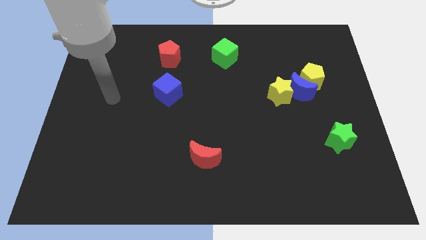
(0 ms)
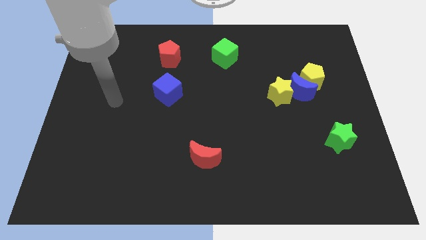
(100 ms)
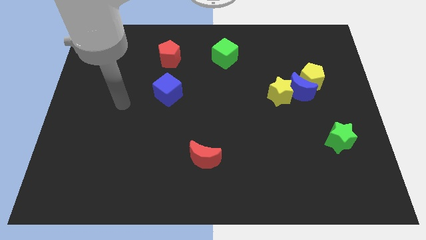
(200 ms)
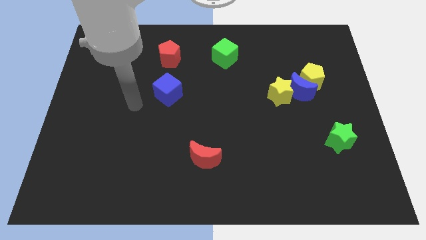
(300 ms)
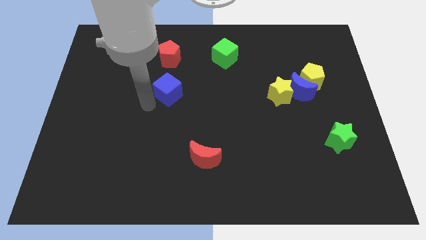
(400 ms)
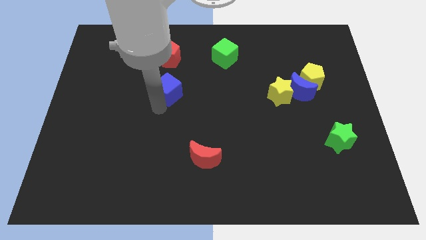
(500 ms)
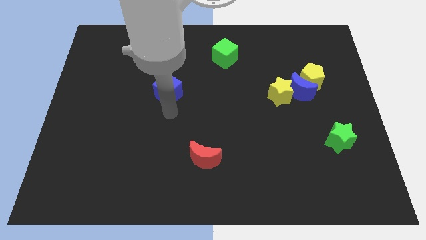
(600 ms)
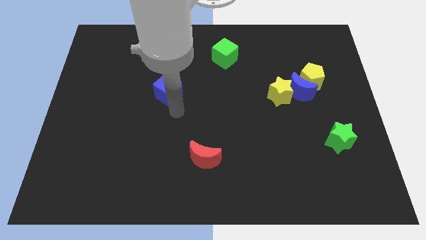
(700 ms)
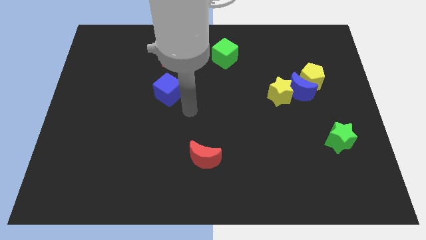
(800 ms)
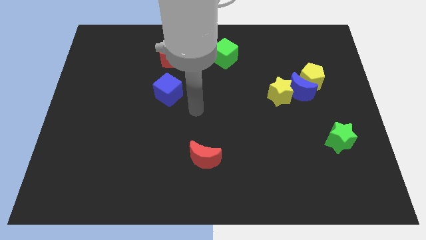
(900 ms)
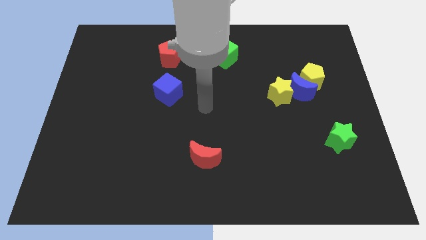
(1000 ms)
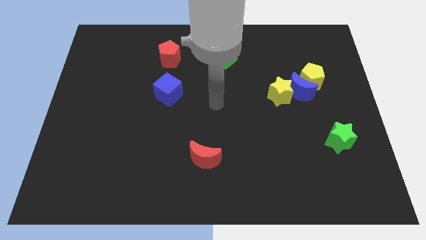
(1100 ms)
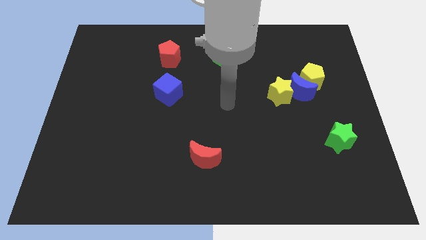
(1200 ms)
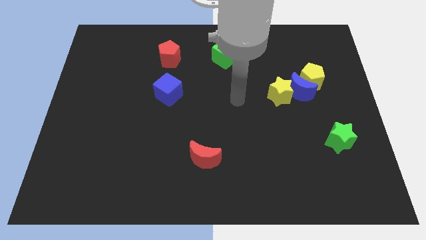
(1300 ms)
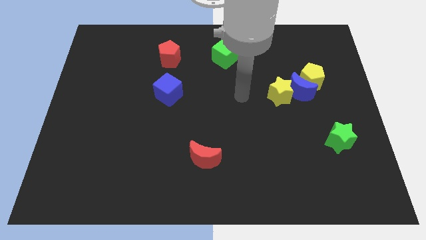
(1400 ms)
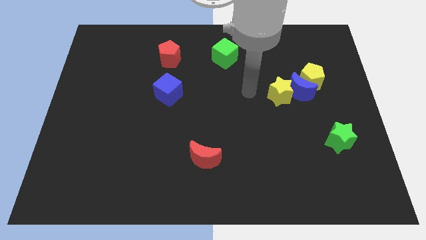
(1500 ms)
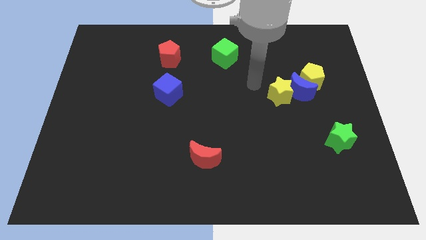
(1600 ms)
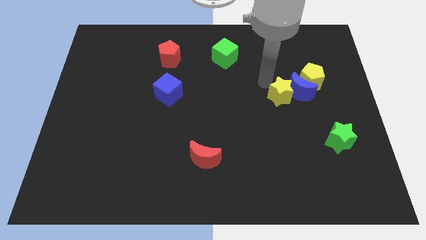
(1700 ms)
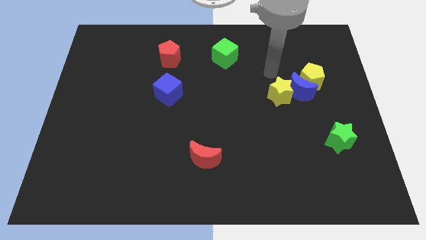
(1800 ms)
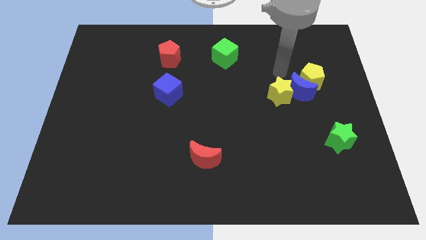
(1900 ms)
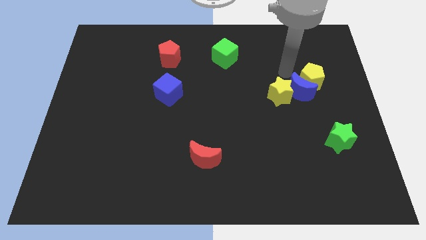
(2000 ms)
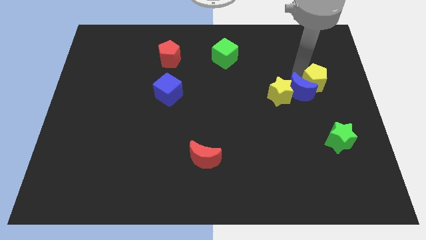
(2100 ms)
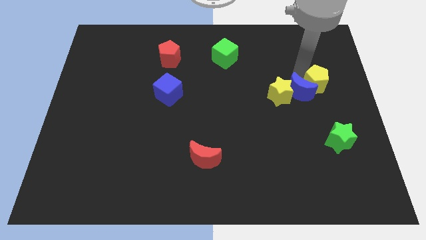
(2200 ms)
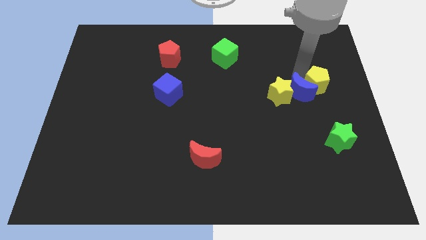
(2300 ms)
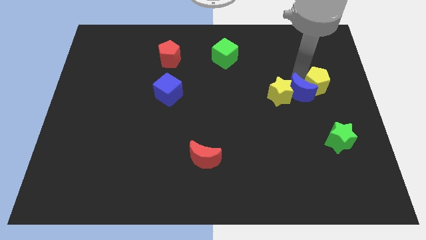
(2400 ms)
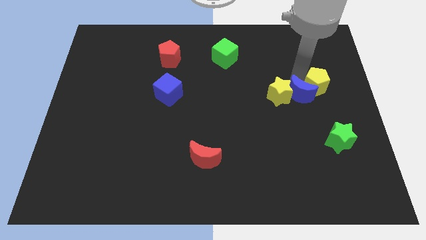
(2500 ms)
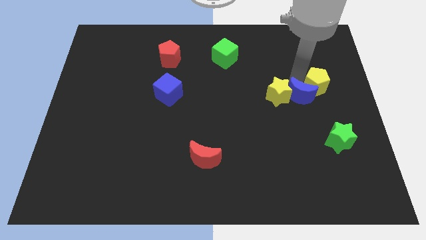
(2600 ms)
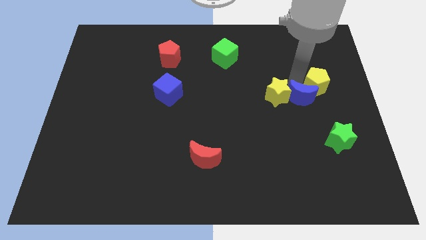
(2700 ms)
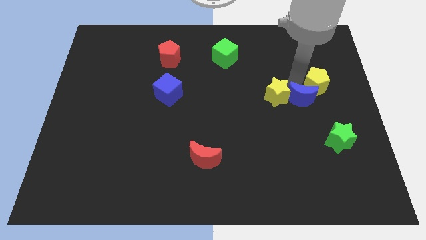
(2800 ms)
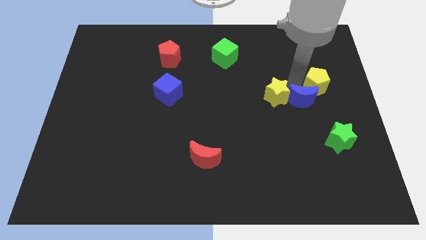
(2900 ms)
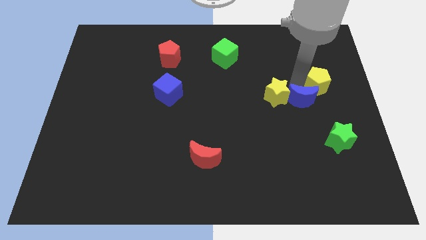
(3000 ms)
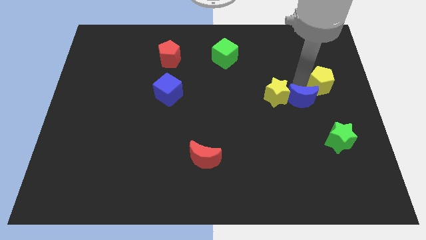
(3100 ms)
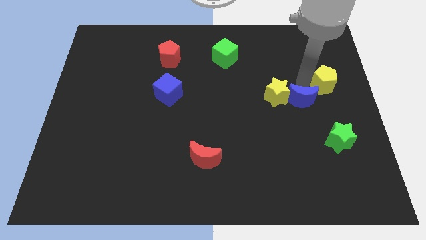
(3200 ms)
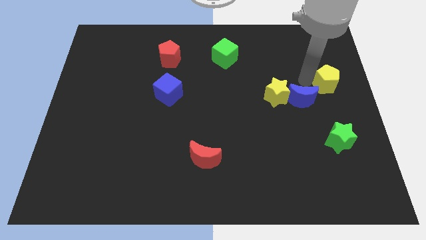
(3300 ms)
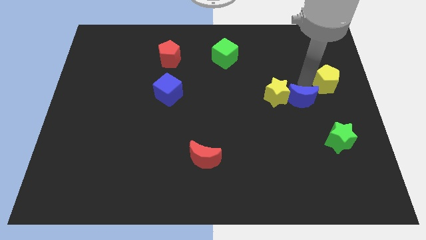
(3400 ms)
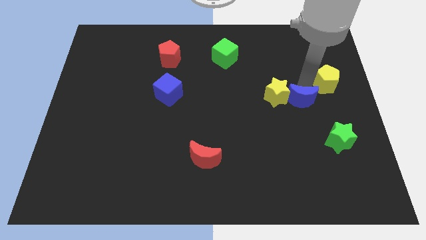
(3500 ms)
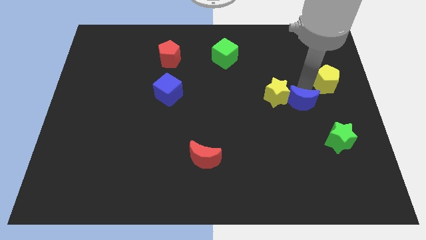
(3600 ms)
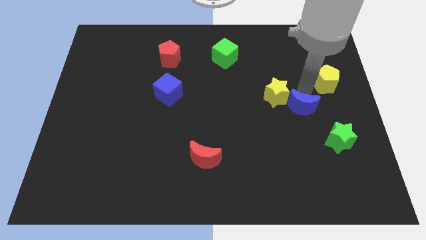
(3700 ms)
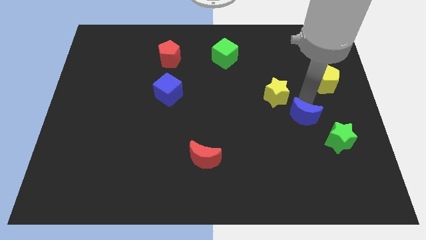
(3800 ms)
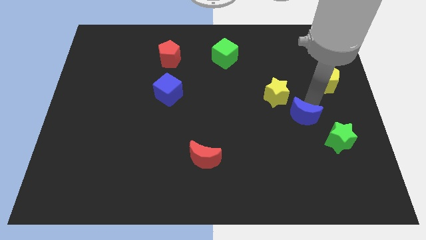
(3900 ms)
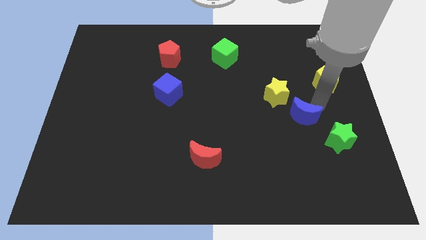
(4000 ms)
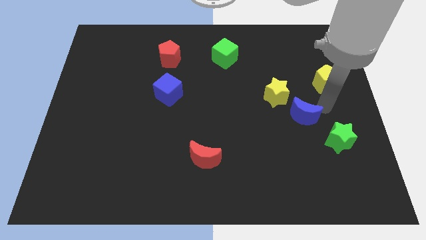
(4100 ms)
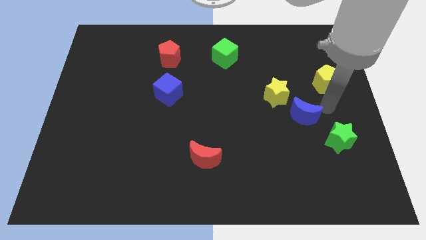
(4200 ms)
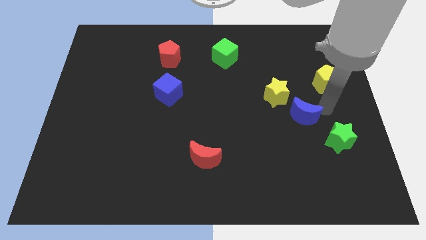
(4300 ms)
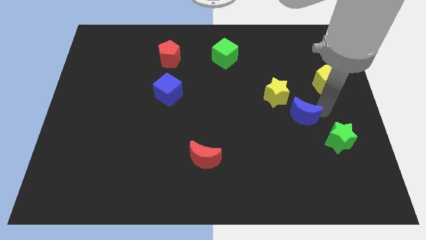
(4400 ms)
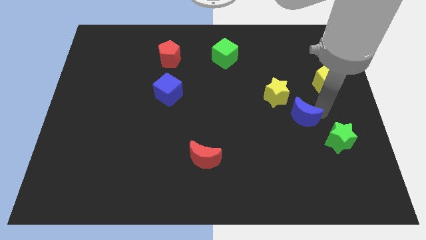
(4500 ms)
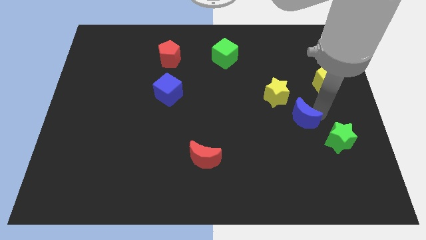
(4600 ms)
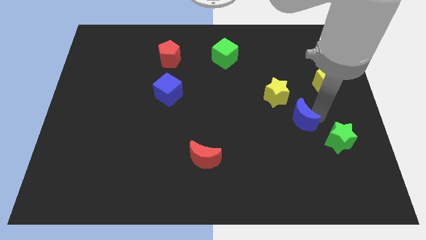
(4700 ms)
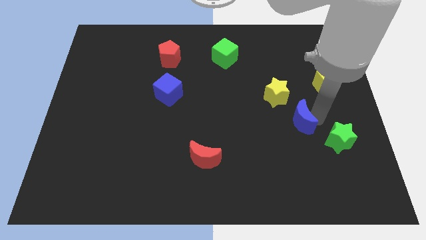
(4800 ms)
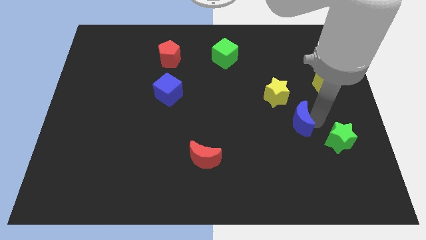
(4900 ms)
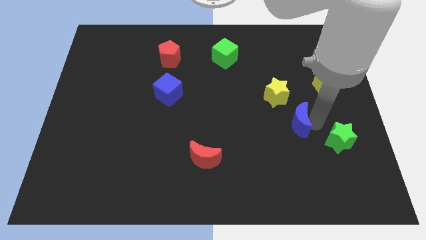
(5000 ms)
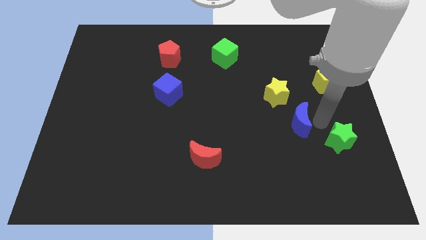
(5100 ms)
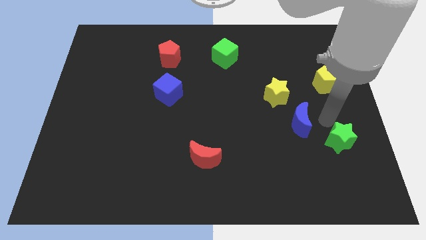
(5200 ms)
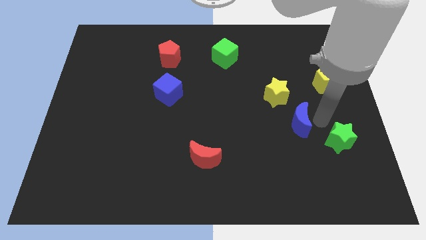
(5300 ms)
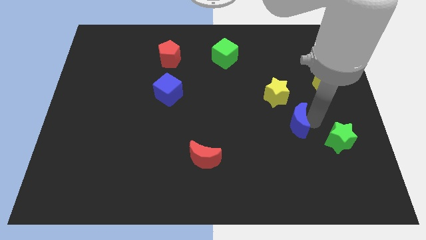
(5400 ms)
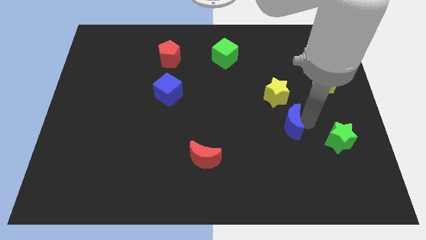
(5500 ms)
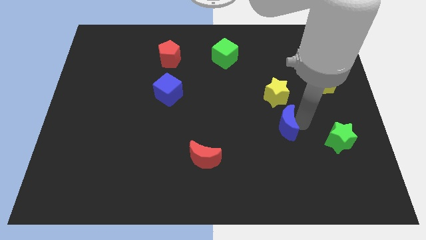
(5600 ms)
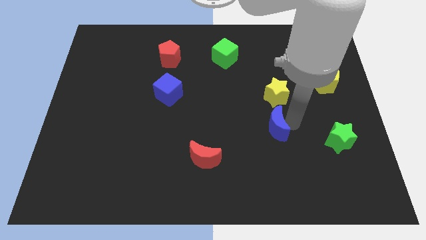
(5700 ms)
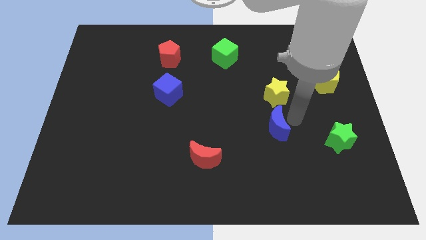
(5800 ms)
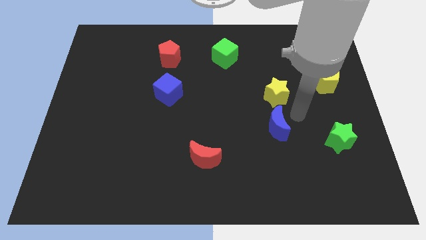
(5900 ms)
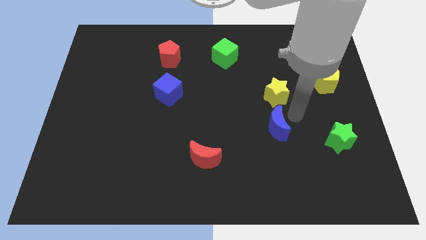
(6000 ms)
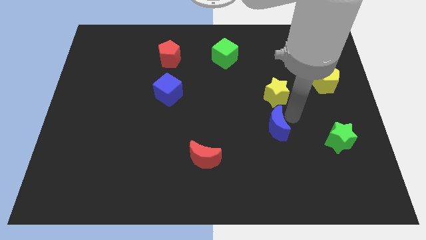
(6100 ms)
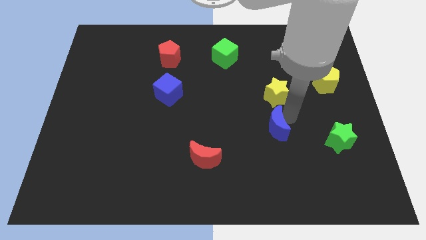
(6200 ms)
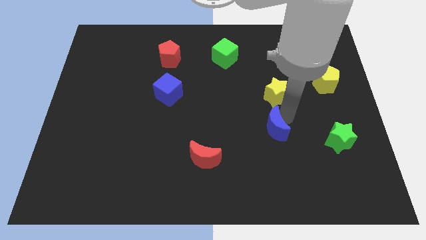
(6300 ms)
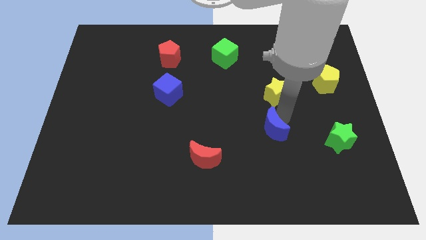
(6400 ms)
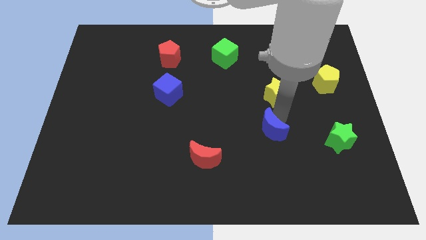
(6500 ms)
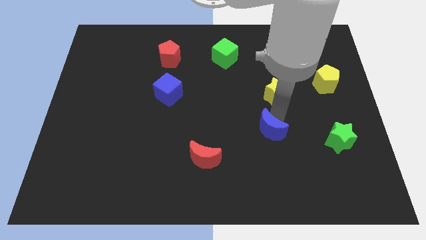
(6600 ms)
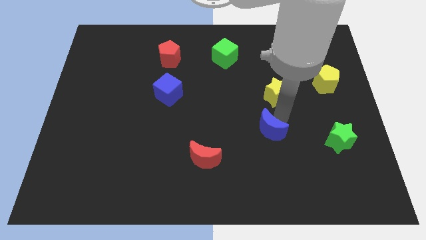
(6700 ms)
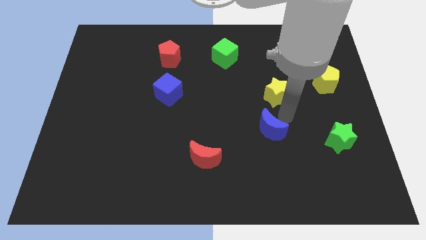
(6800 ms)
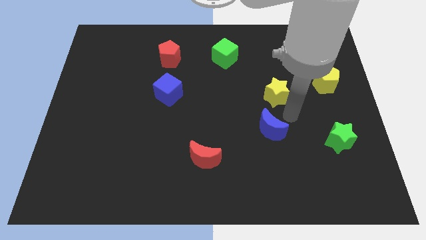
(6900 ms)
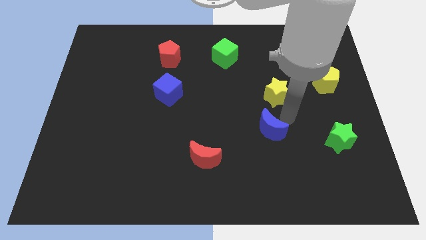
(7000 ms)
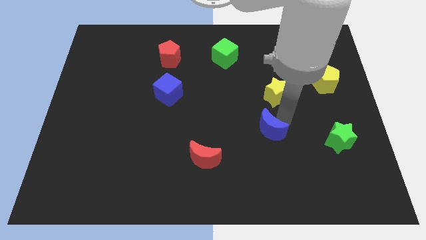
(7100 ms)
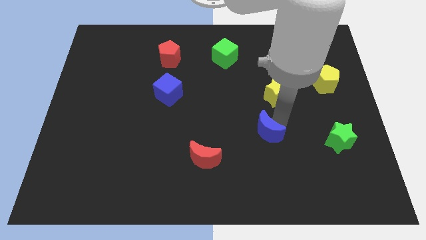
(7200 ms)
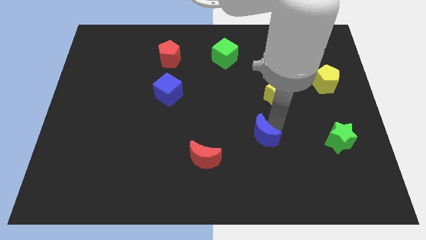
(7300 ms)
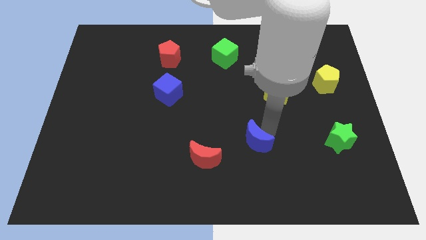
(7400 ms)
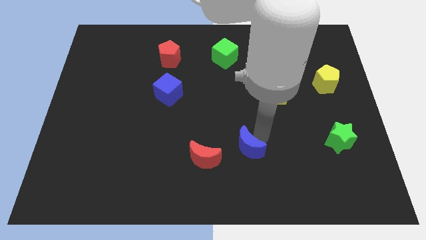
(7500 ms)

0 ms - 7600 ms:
slide the blue moon downwards and left

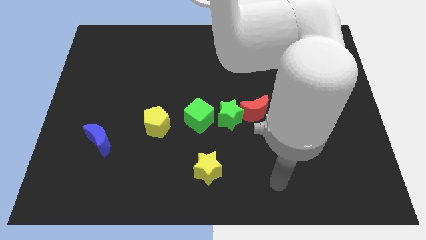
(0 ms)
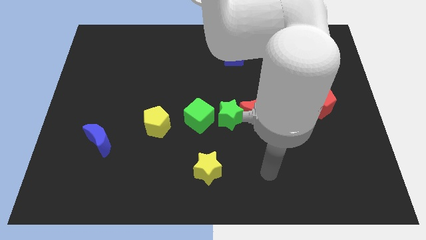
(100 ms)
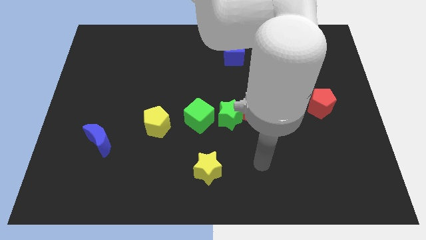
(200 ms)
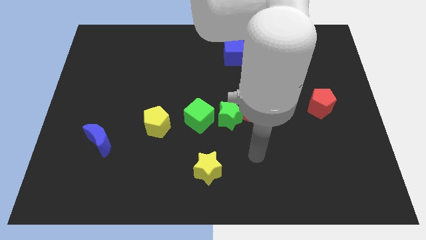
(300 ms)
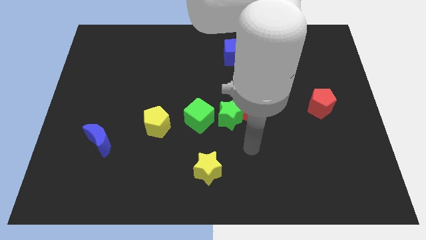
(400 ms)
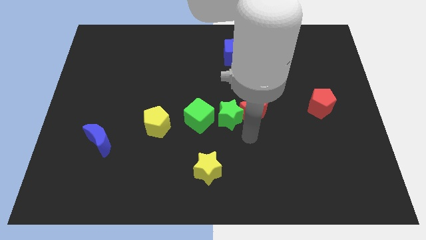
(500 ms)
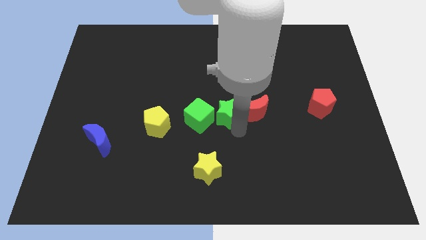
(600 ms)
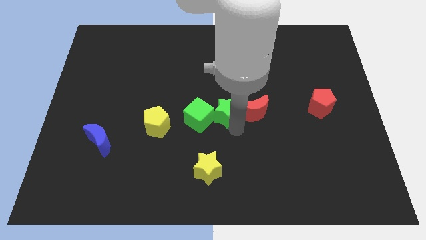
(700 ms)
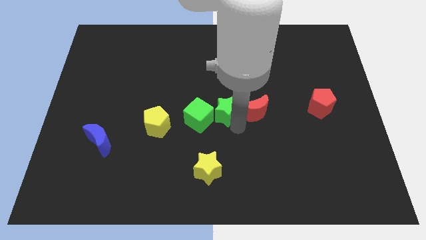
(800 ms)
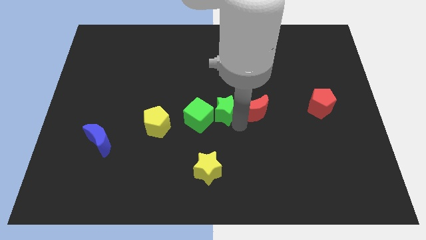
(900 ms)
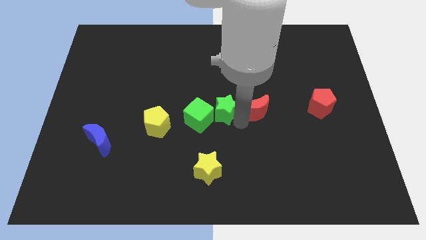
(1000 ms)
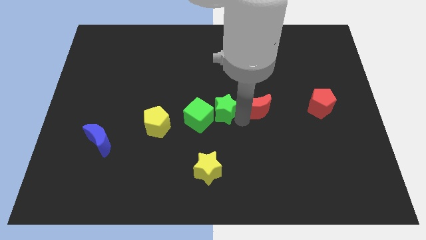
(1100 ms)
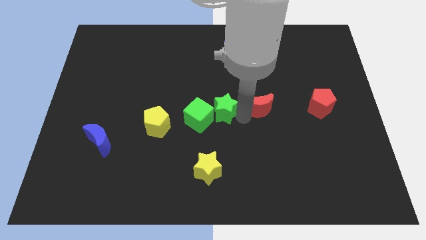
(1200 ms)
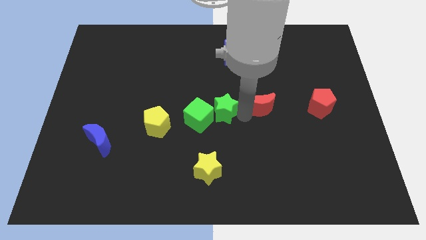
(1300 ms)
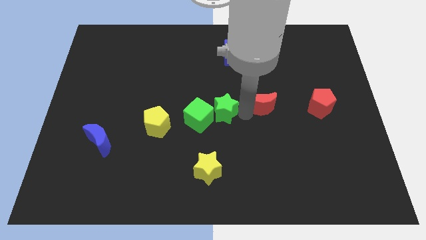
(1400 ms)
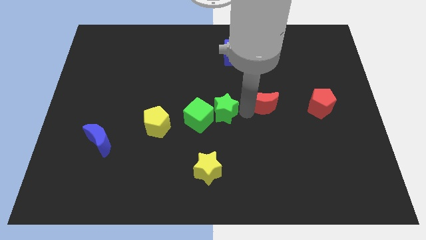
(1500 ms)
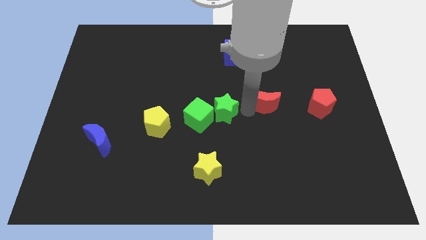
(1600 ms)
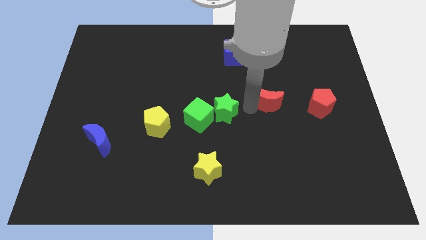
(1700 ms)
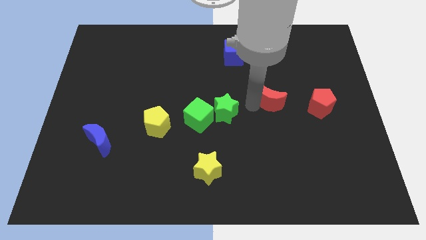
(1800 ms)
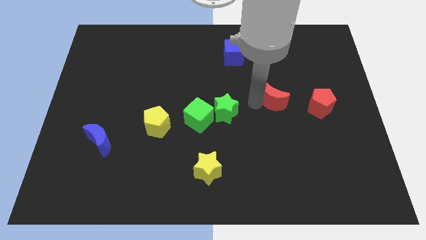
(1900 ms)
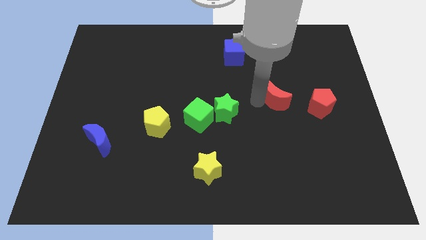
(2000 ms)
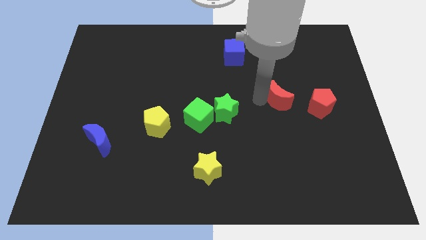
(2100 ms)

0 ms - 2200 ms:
slightly push the red moon diagonally upwards and right
